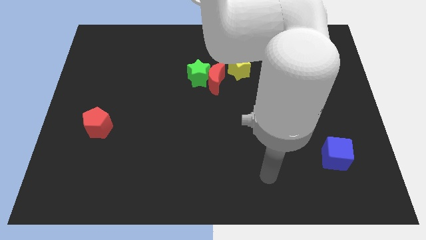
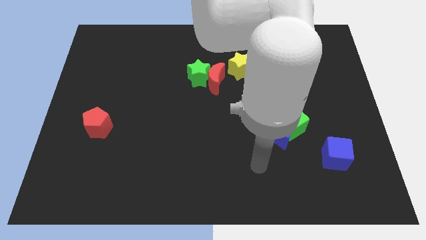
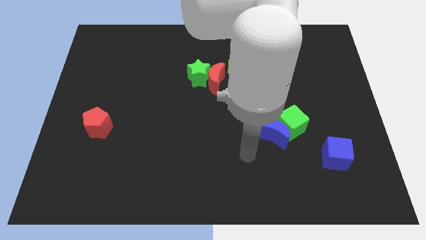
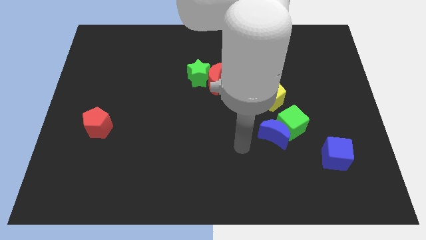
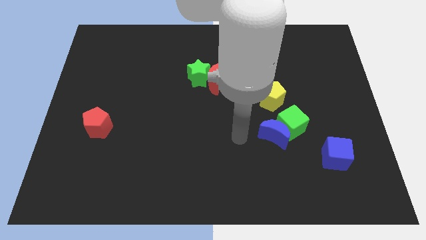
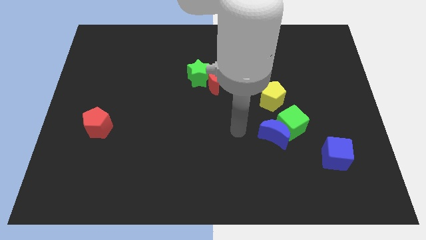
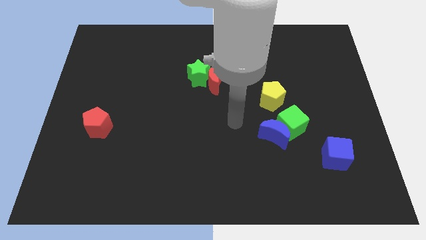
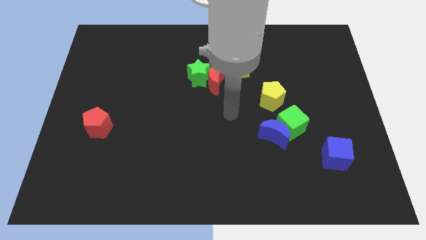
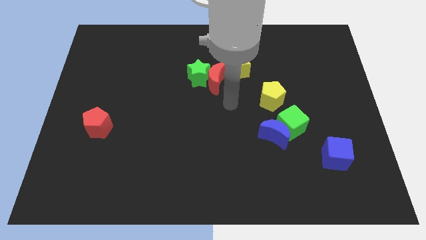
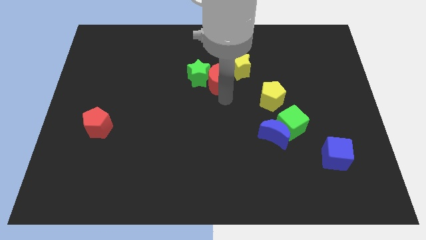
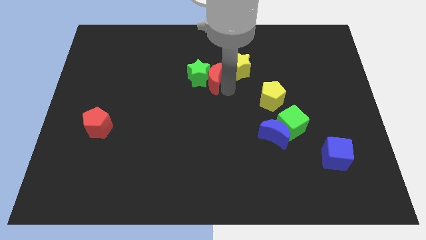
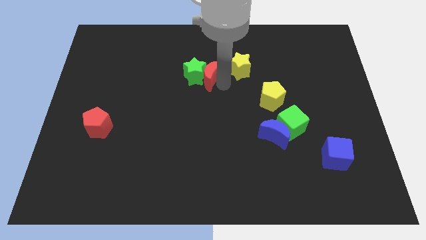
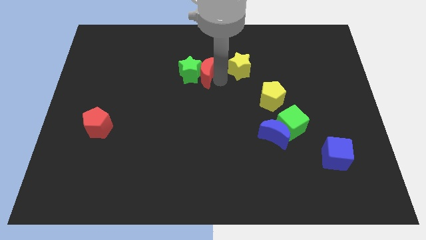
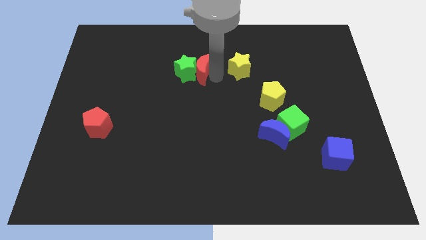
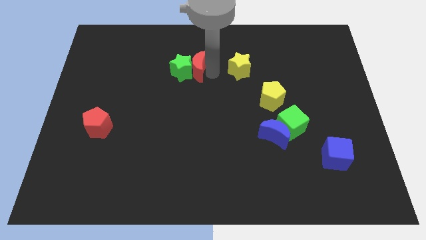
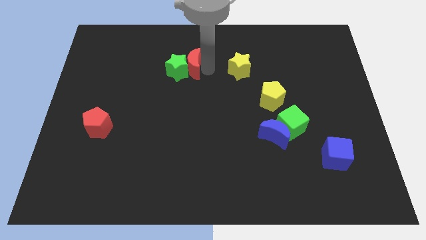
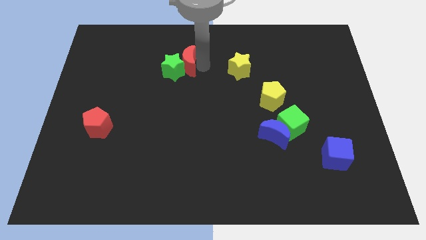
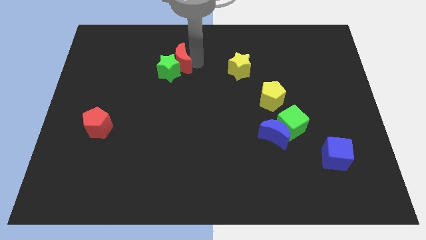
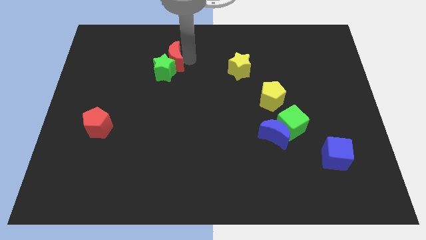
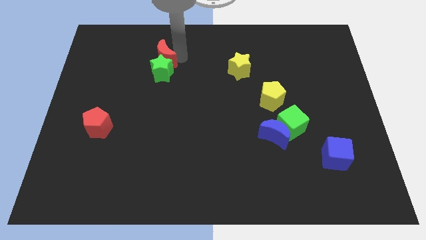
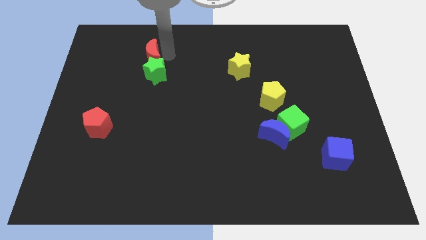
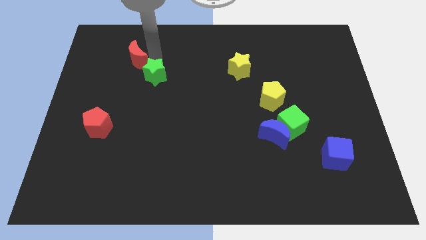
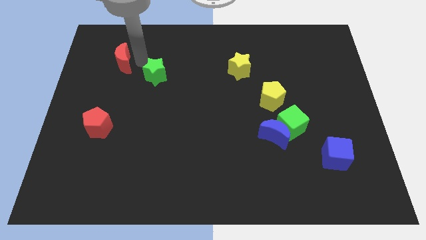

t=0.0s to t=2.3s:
move the green star away from the red moon

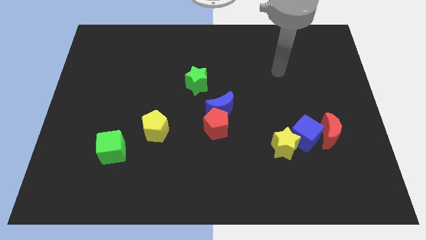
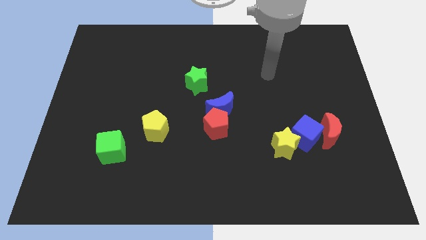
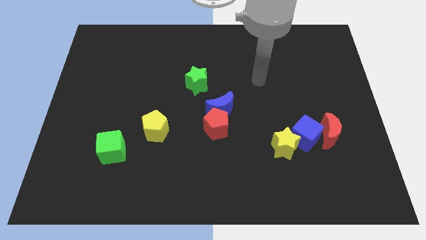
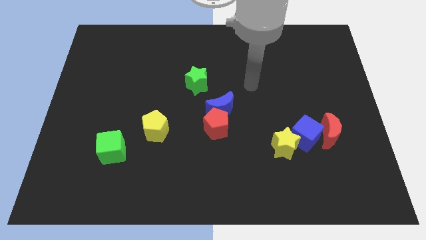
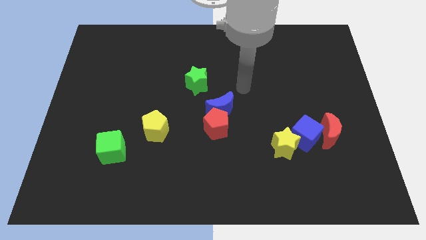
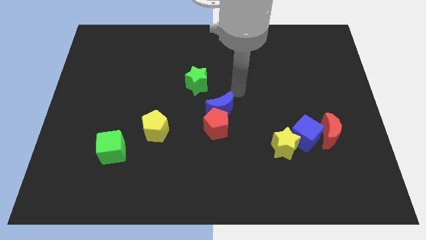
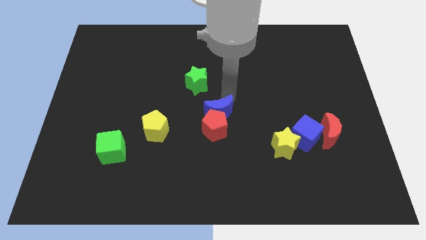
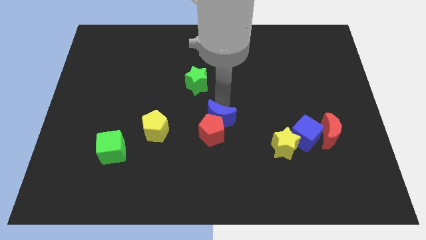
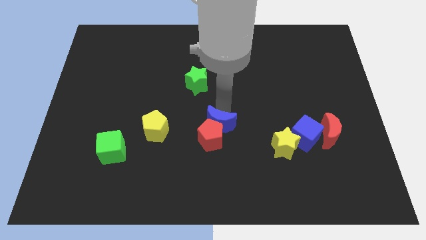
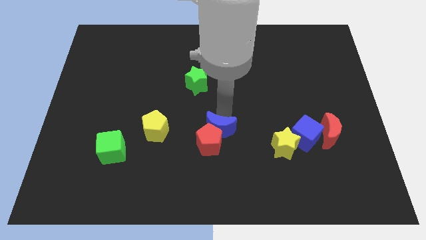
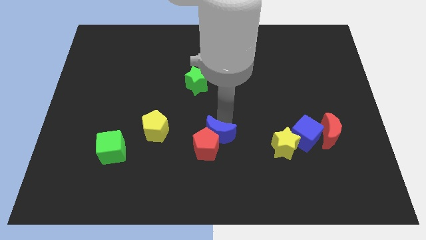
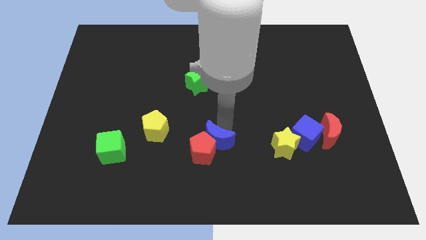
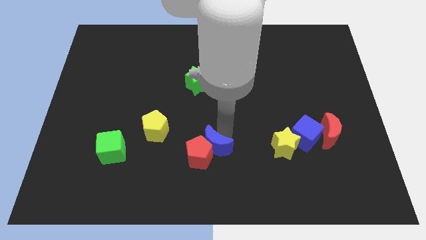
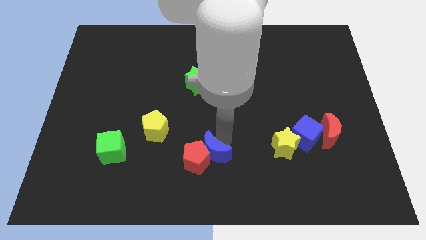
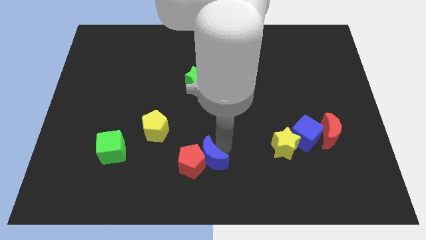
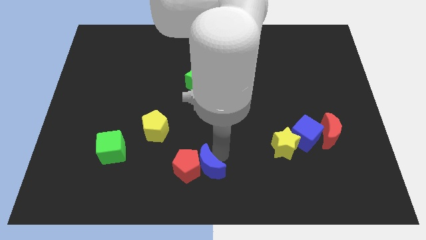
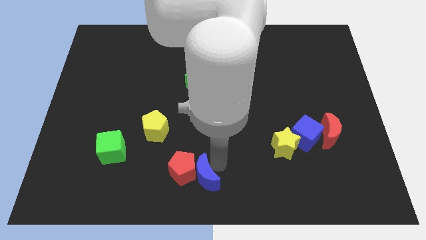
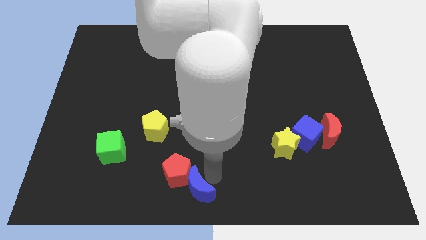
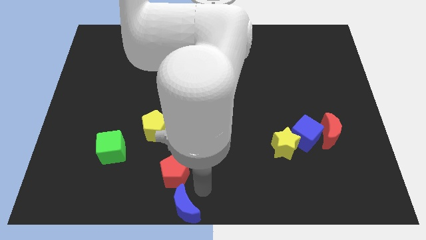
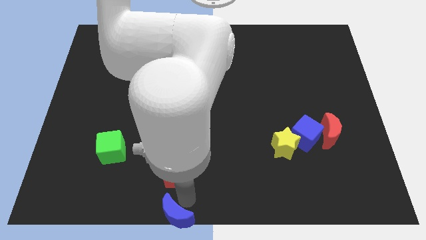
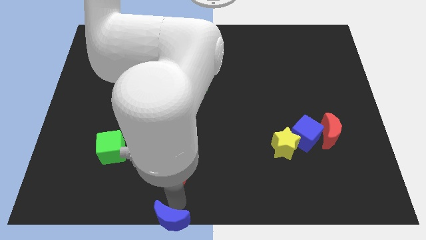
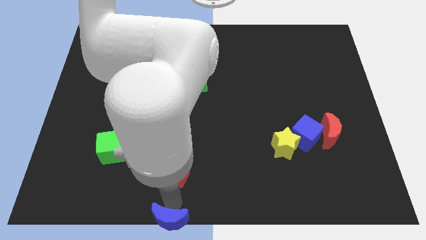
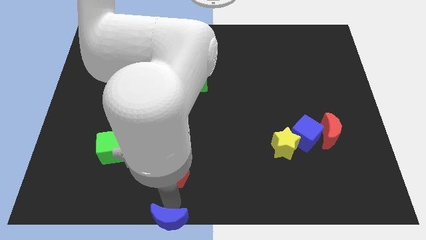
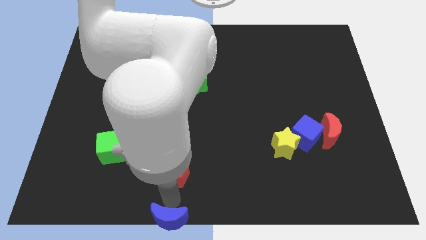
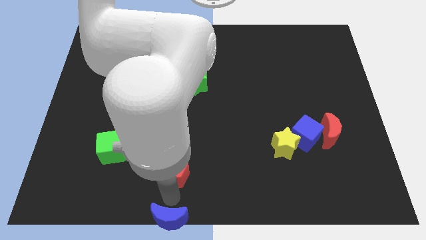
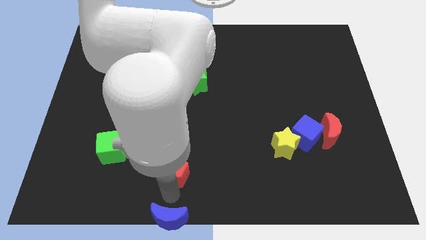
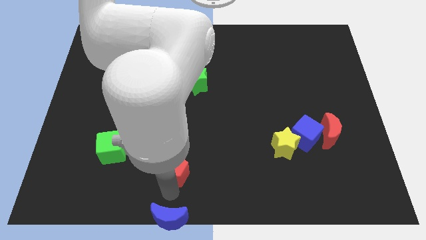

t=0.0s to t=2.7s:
move the red pentagon away from the blue moon

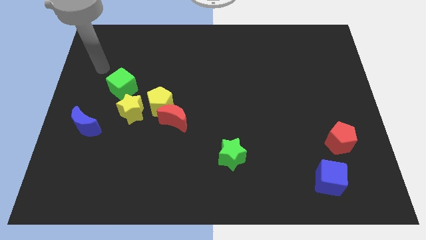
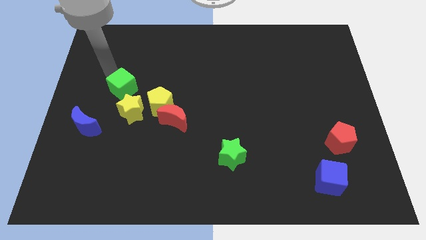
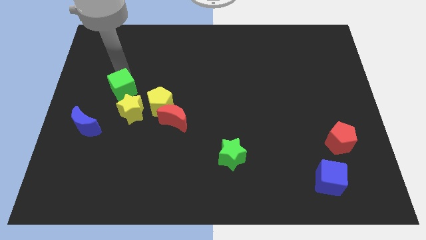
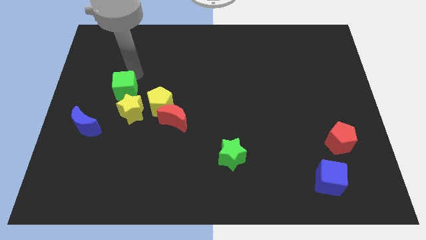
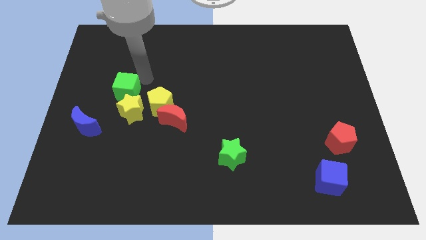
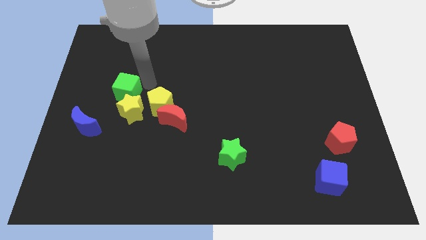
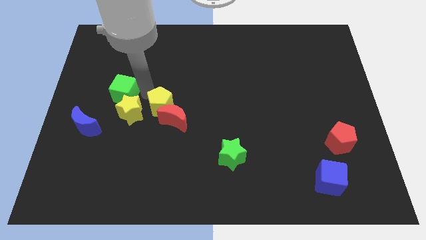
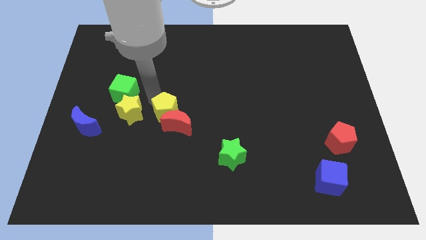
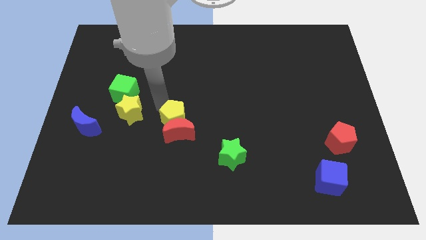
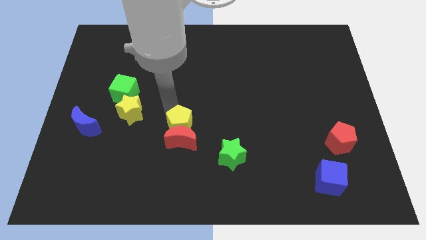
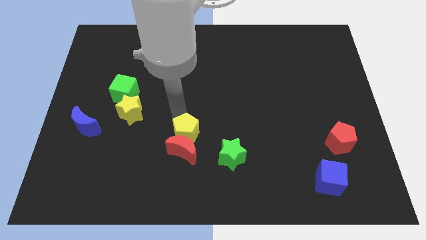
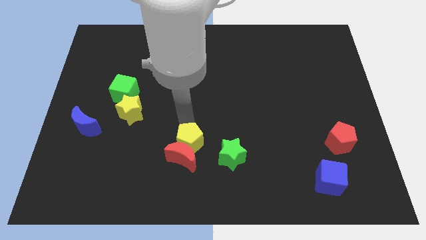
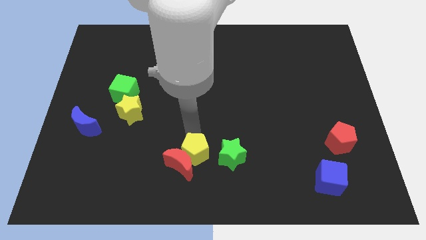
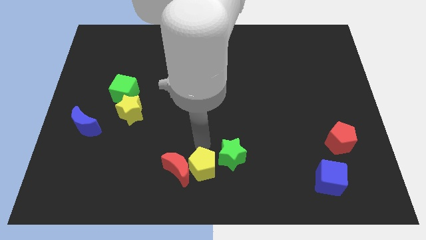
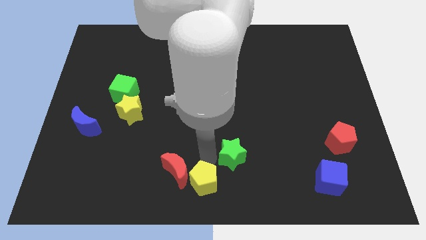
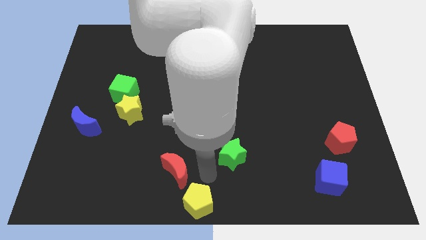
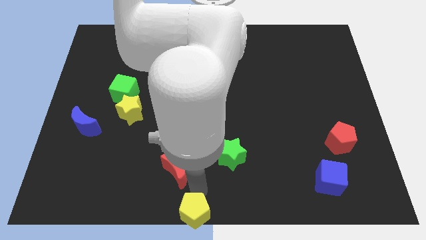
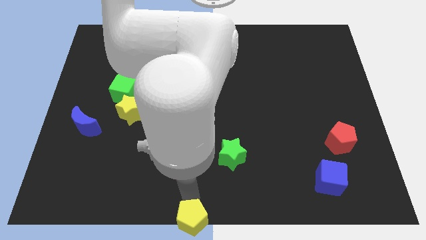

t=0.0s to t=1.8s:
move the red moon away from the yellow pentagon

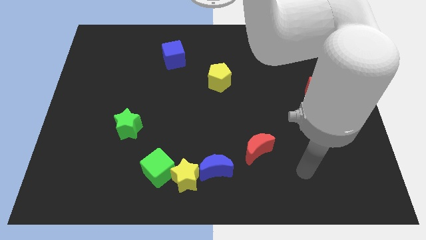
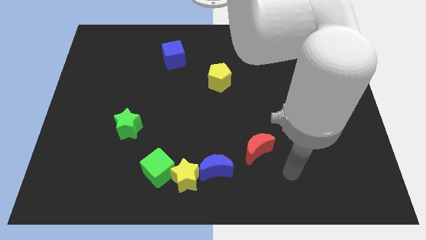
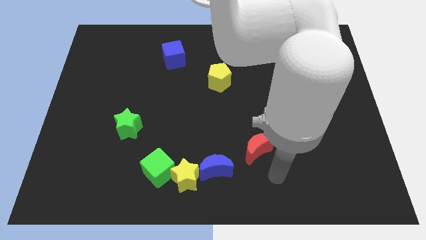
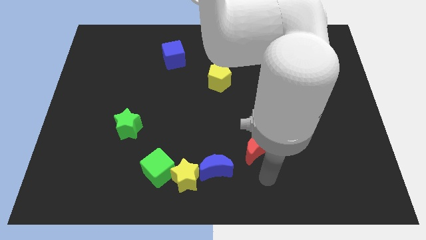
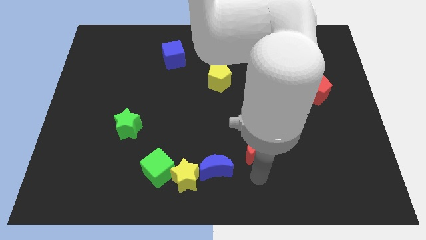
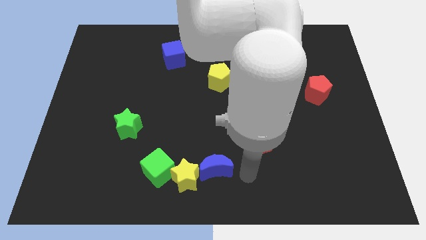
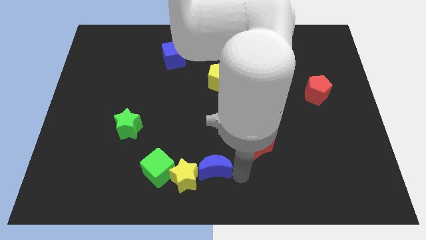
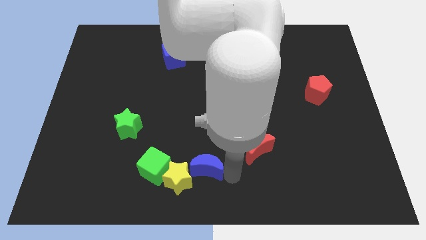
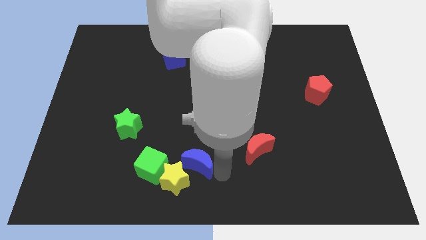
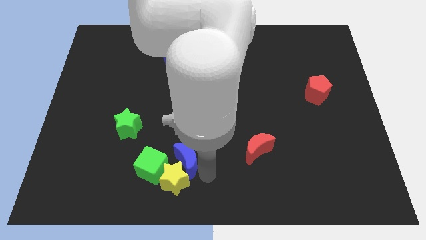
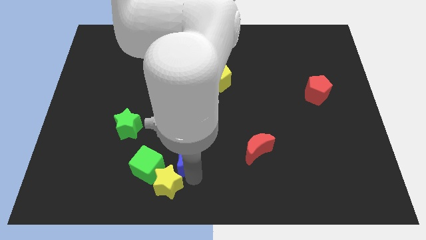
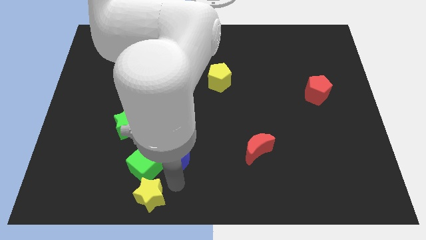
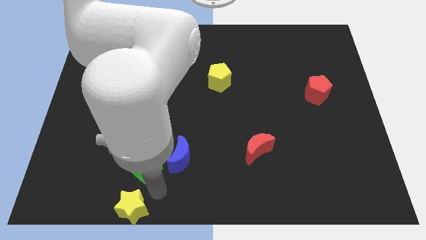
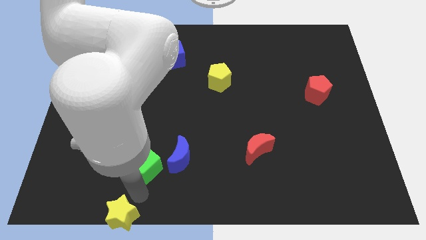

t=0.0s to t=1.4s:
move the green cube away from the yellow star

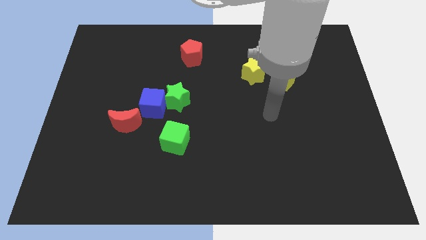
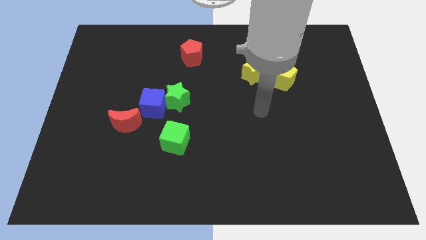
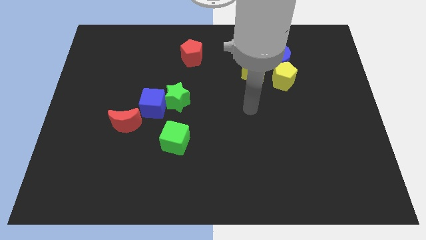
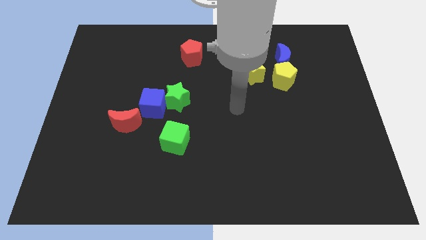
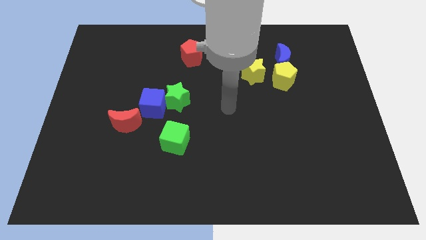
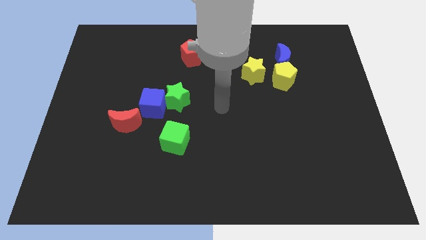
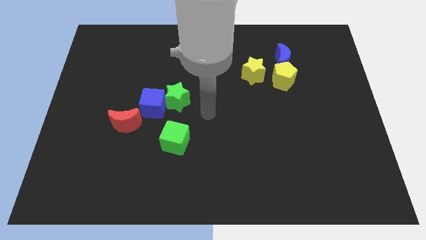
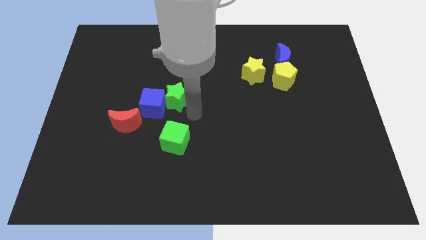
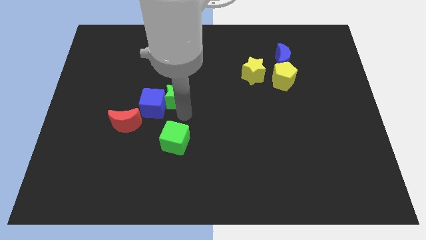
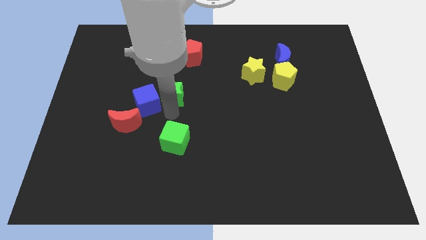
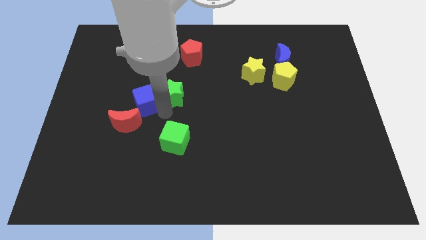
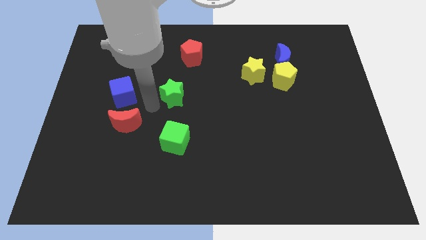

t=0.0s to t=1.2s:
move the green star away from the blue cube
